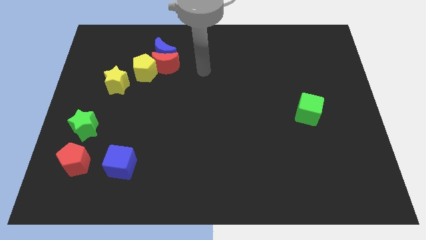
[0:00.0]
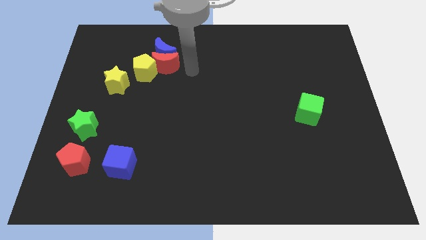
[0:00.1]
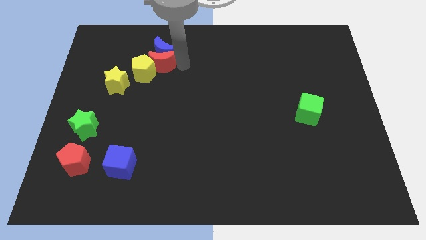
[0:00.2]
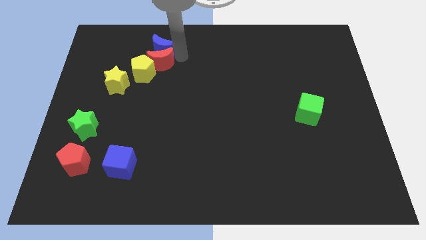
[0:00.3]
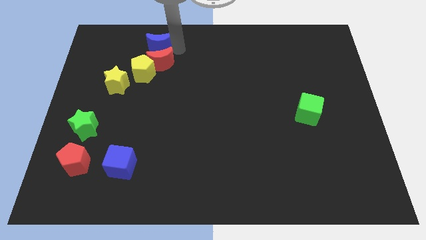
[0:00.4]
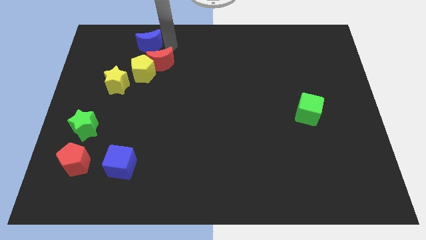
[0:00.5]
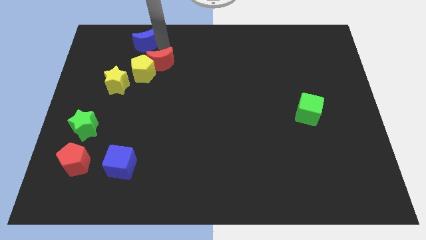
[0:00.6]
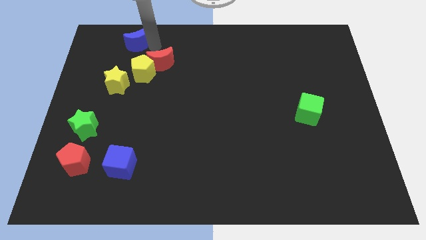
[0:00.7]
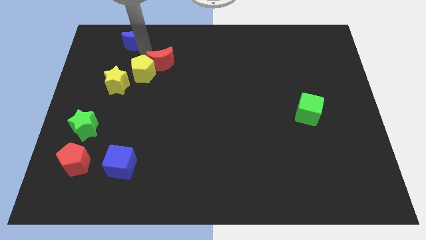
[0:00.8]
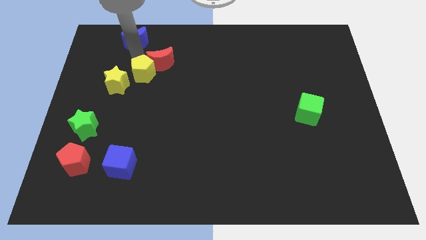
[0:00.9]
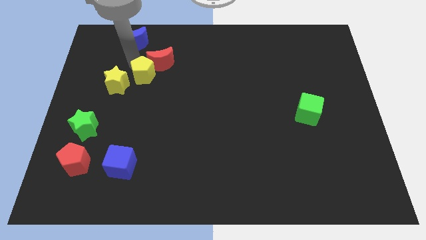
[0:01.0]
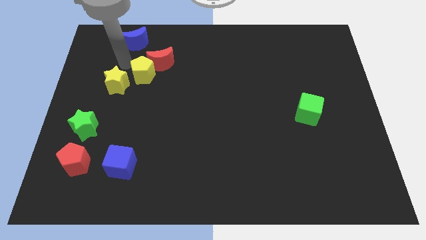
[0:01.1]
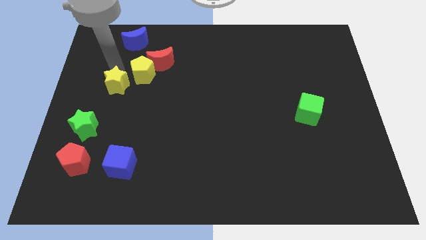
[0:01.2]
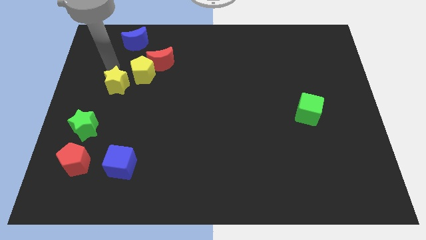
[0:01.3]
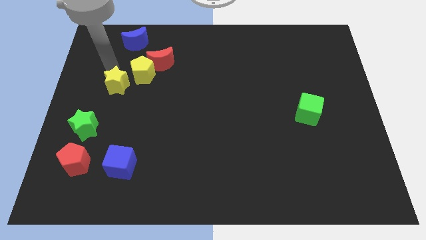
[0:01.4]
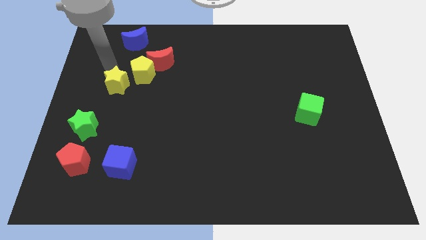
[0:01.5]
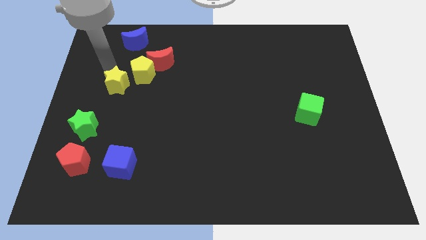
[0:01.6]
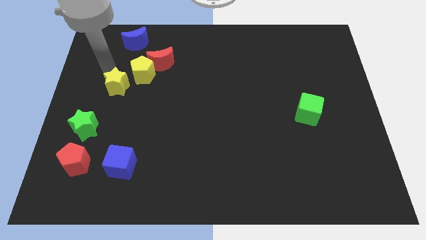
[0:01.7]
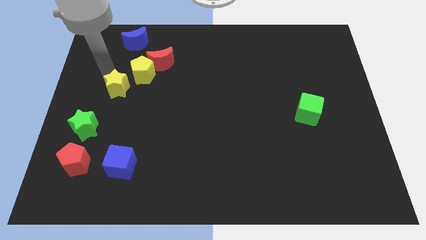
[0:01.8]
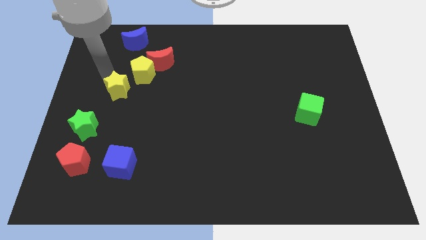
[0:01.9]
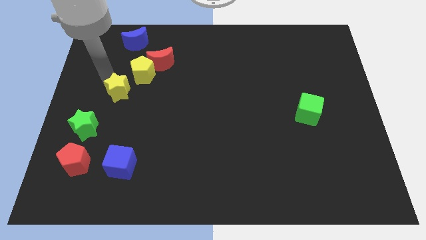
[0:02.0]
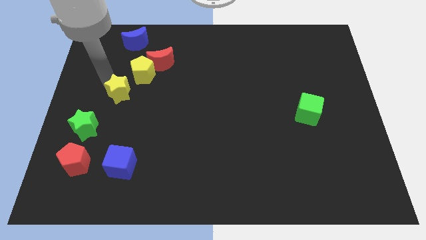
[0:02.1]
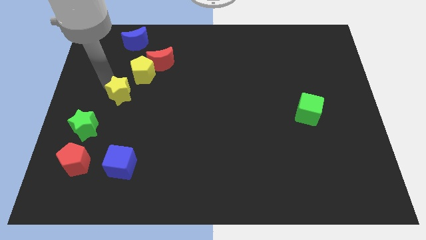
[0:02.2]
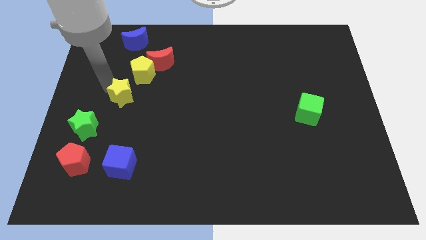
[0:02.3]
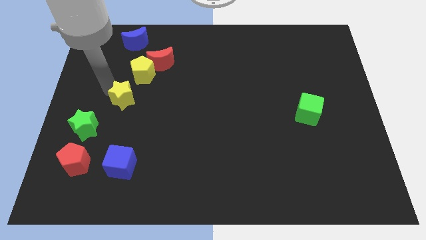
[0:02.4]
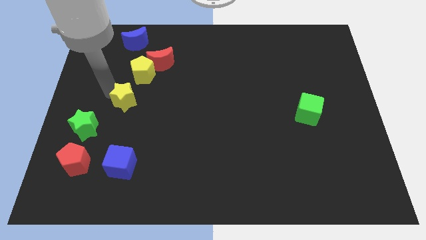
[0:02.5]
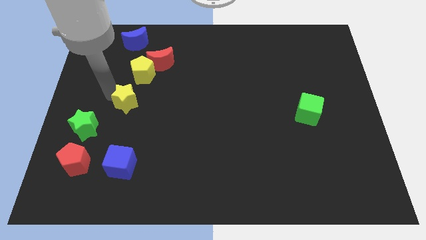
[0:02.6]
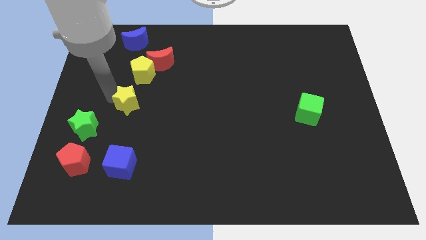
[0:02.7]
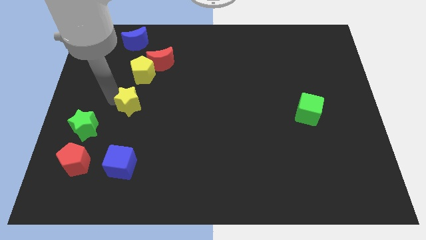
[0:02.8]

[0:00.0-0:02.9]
push the yellow star diagonally downwards and to the right a little

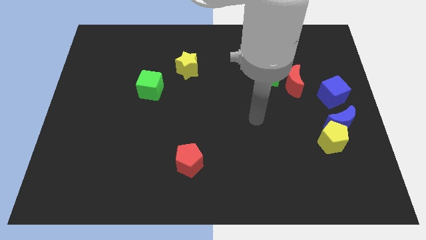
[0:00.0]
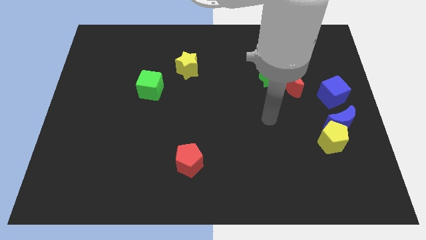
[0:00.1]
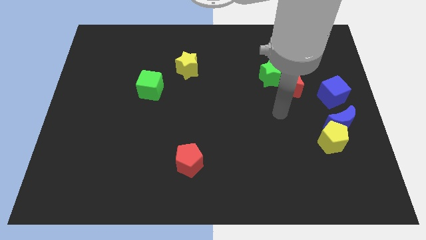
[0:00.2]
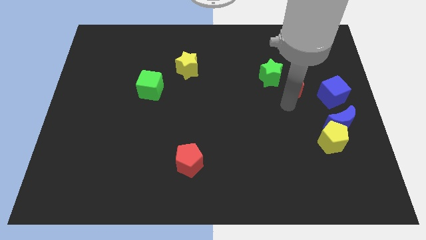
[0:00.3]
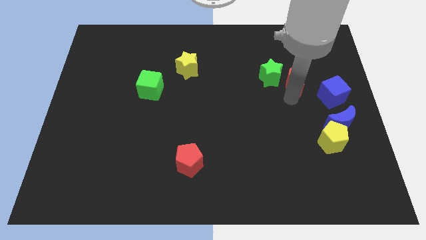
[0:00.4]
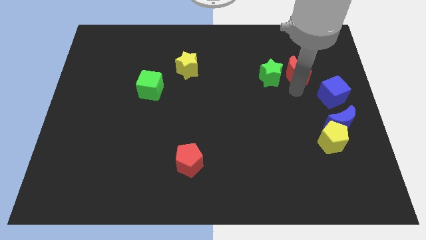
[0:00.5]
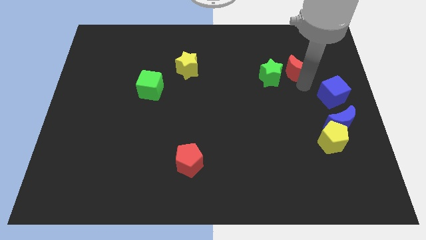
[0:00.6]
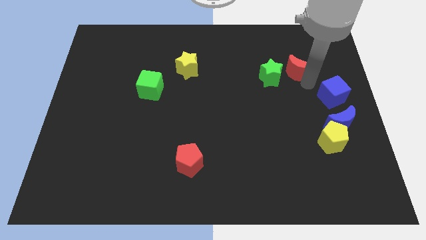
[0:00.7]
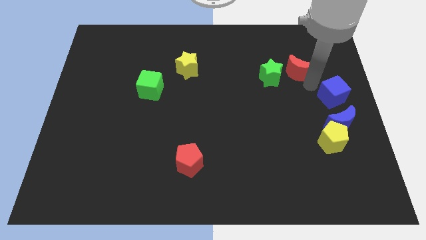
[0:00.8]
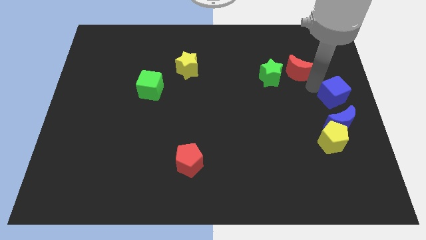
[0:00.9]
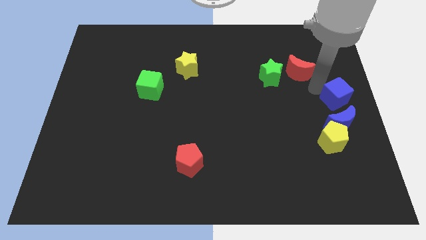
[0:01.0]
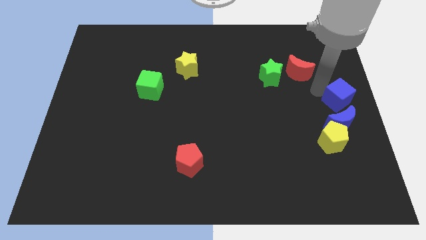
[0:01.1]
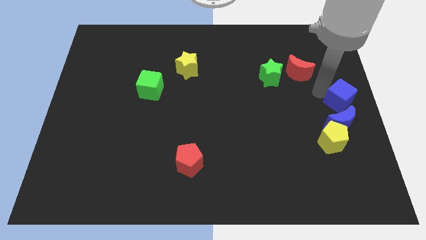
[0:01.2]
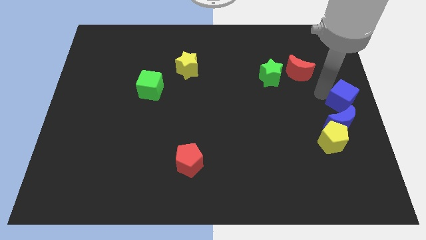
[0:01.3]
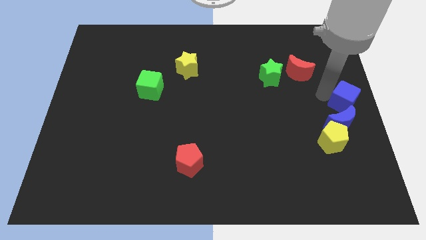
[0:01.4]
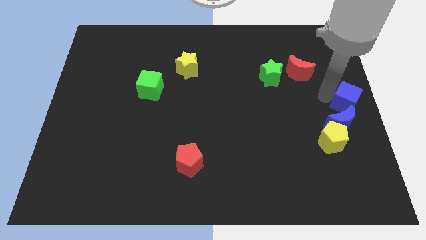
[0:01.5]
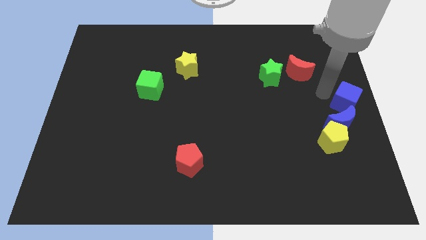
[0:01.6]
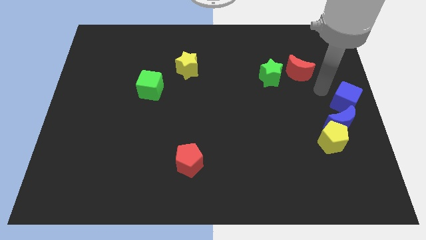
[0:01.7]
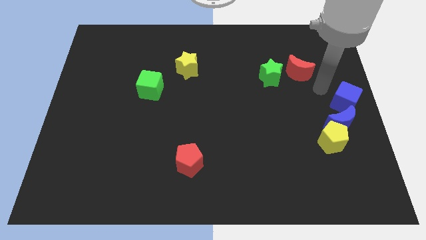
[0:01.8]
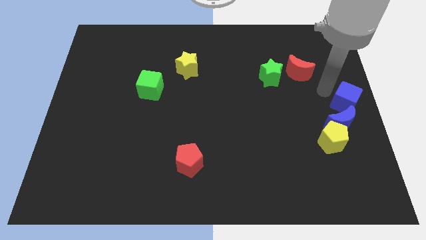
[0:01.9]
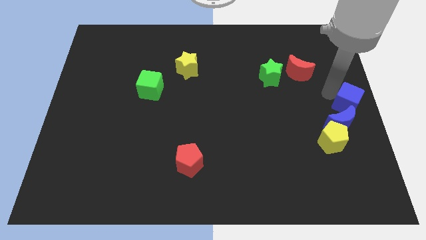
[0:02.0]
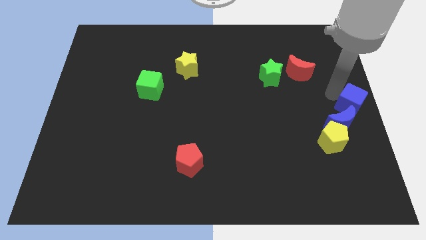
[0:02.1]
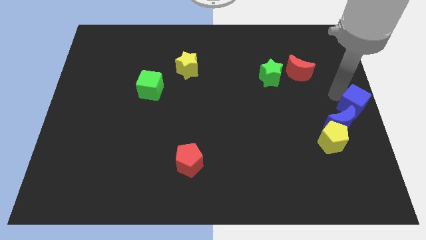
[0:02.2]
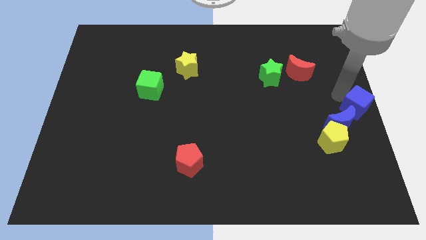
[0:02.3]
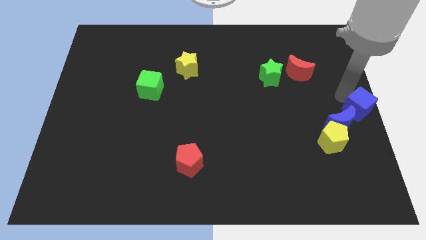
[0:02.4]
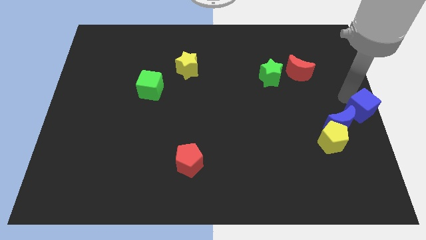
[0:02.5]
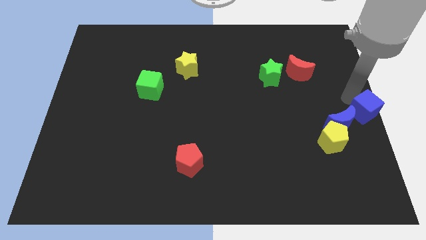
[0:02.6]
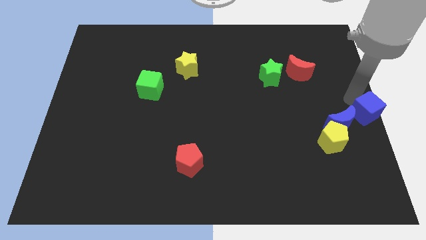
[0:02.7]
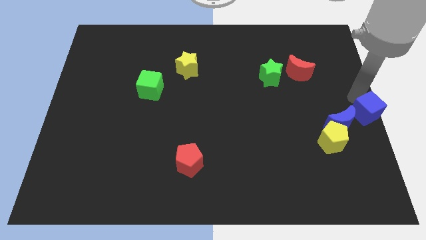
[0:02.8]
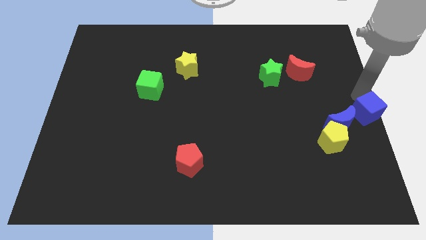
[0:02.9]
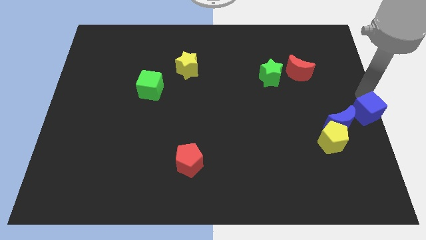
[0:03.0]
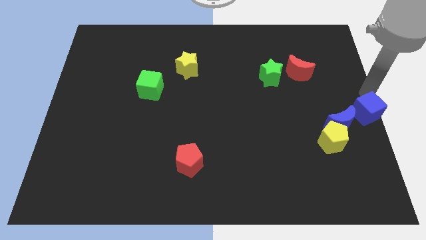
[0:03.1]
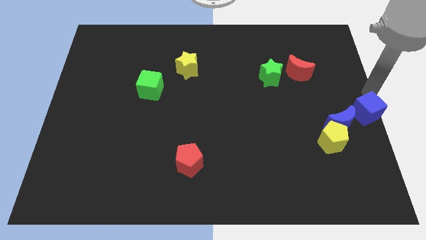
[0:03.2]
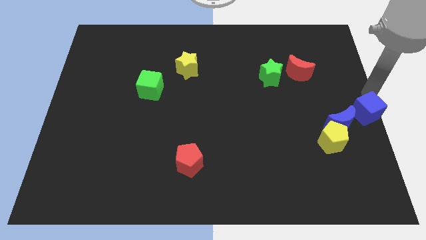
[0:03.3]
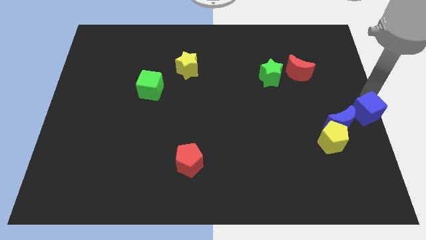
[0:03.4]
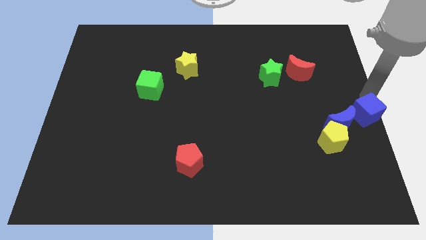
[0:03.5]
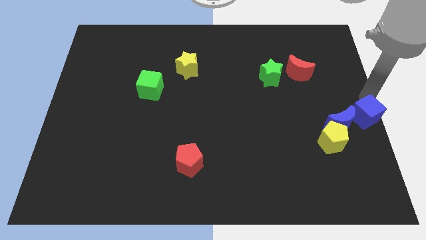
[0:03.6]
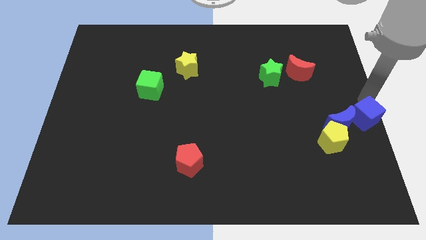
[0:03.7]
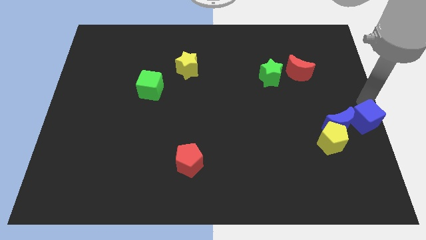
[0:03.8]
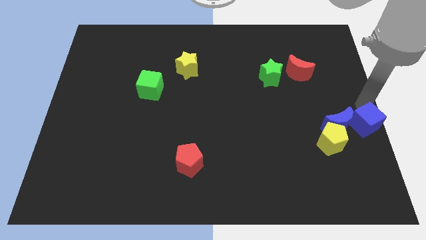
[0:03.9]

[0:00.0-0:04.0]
slide the blue cube slightly downwards

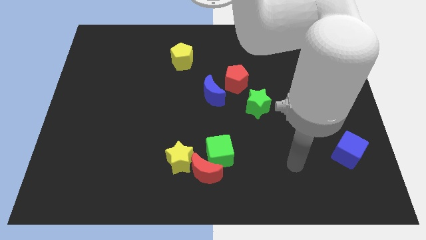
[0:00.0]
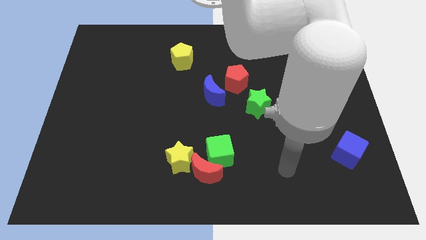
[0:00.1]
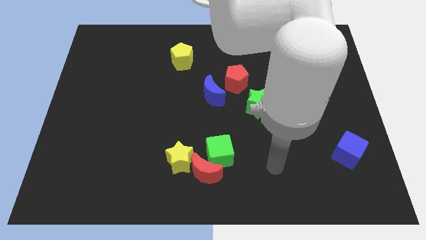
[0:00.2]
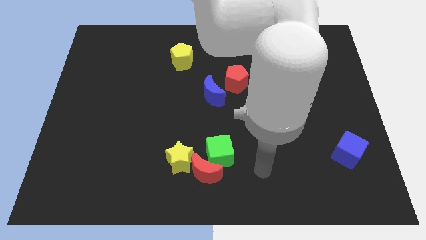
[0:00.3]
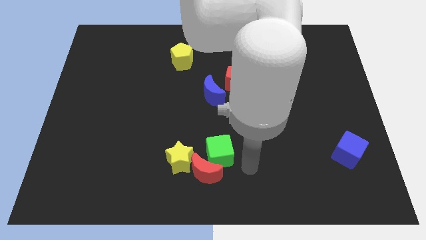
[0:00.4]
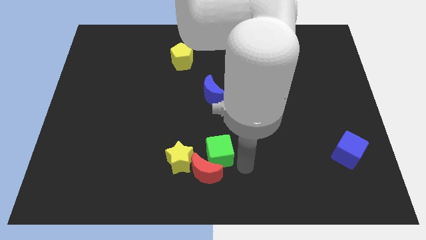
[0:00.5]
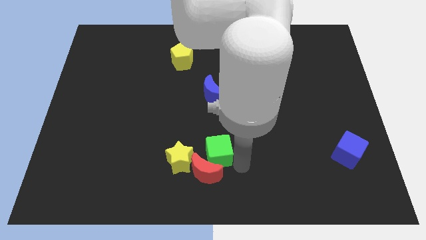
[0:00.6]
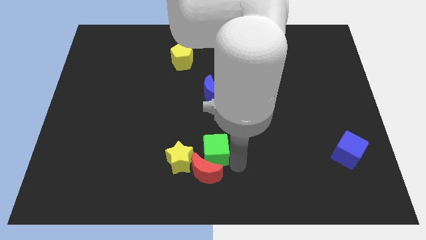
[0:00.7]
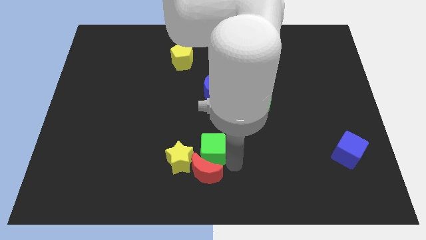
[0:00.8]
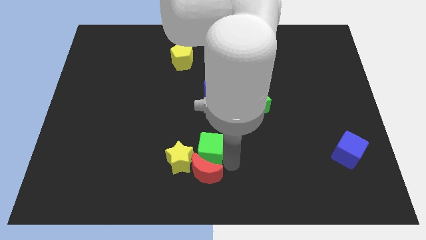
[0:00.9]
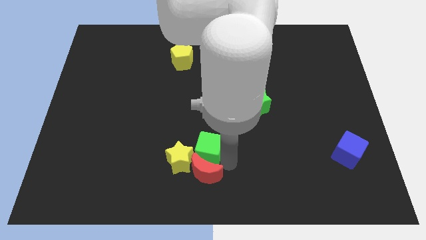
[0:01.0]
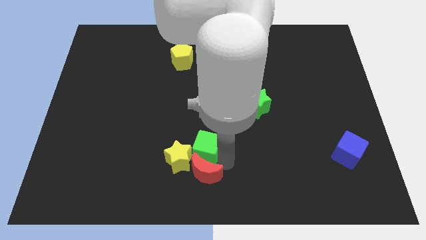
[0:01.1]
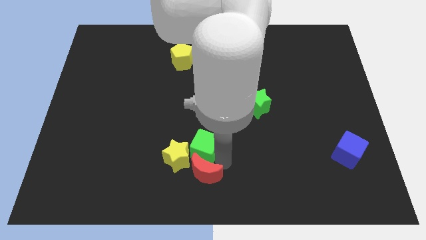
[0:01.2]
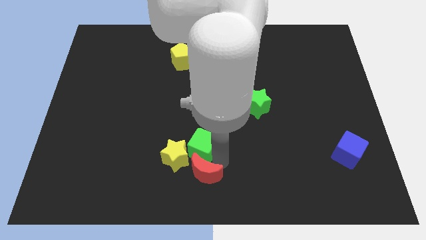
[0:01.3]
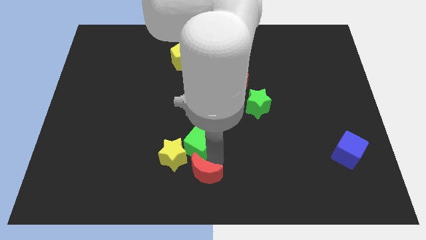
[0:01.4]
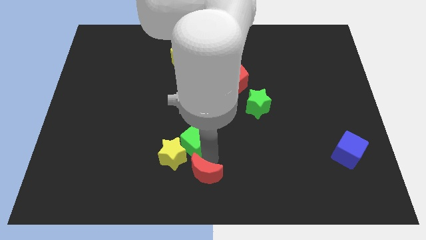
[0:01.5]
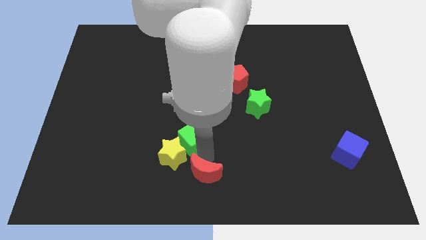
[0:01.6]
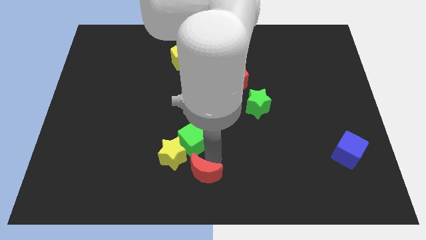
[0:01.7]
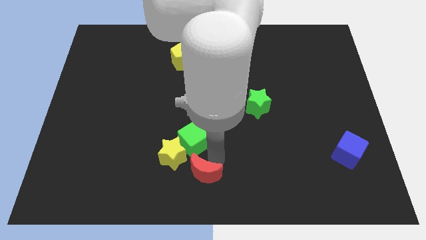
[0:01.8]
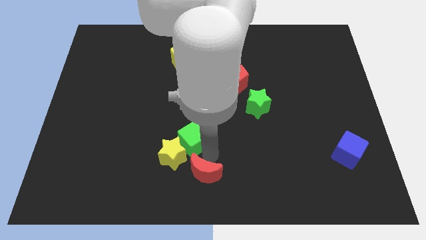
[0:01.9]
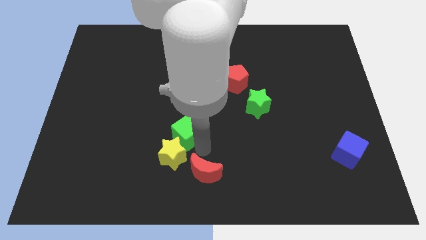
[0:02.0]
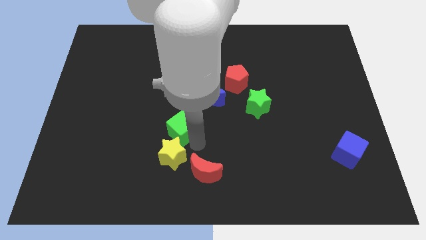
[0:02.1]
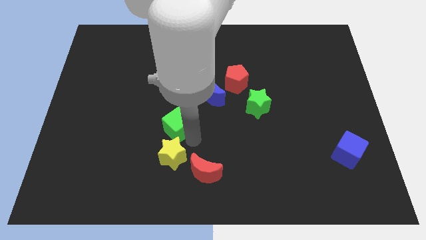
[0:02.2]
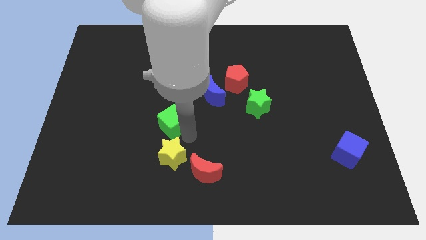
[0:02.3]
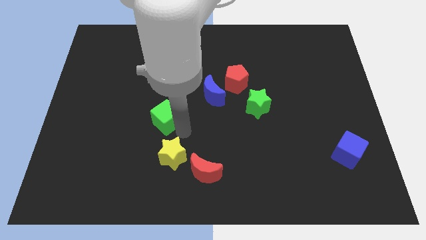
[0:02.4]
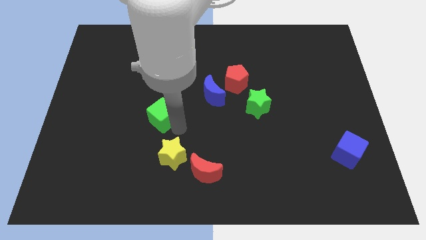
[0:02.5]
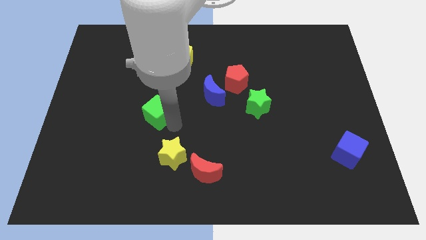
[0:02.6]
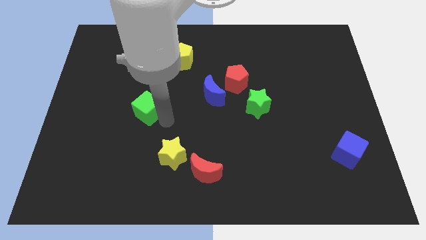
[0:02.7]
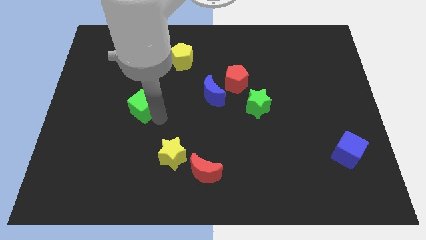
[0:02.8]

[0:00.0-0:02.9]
move the green cube diagonally upwards and to the left
